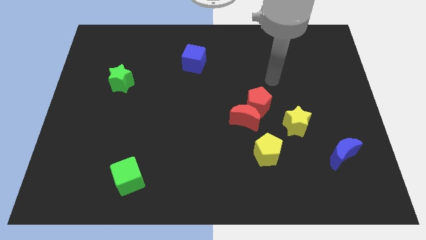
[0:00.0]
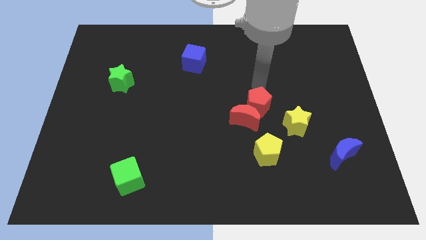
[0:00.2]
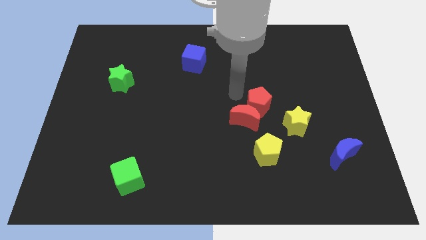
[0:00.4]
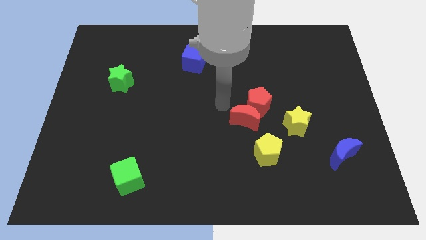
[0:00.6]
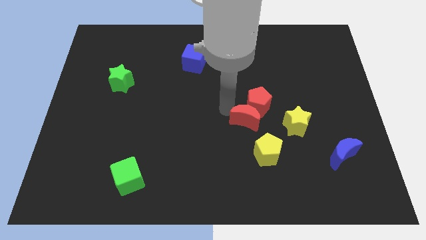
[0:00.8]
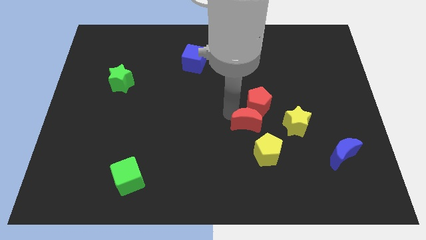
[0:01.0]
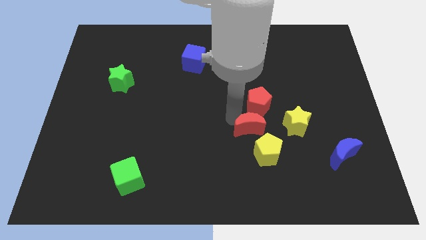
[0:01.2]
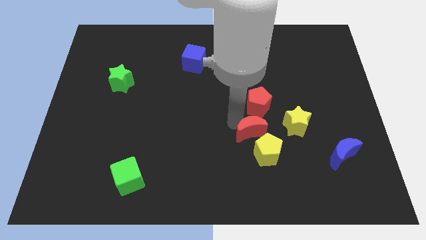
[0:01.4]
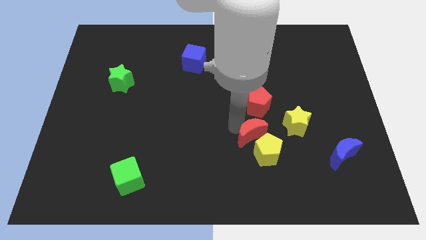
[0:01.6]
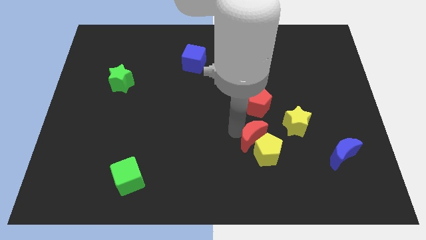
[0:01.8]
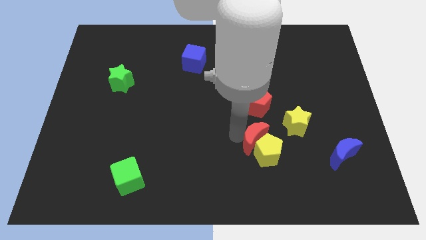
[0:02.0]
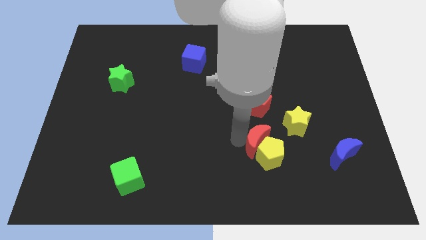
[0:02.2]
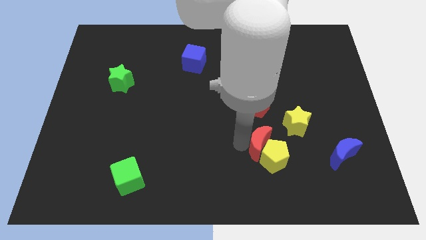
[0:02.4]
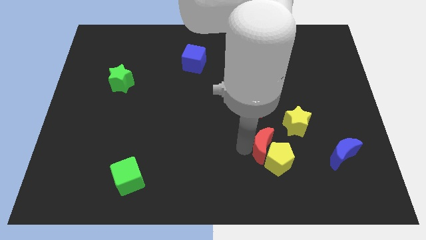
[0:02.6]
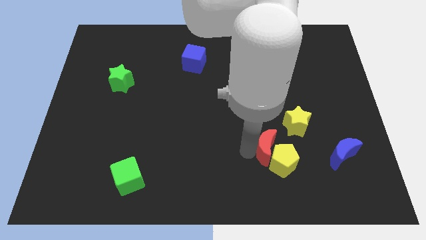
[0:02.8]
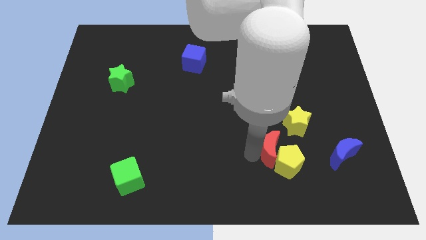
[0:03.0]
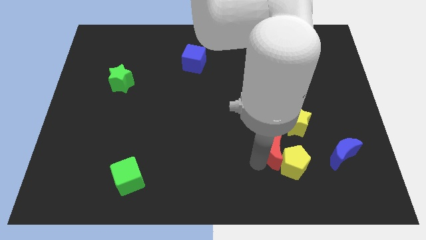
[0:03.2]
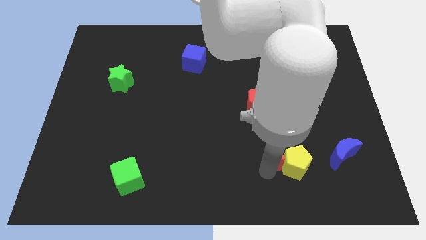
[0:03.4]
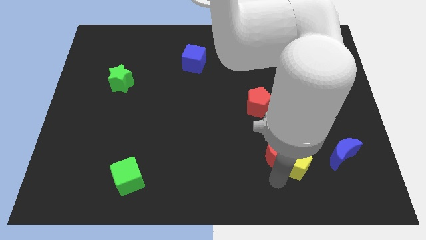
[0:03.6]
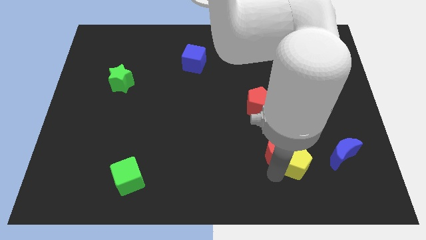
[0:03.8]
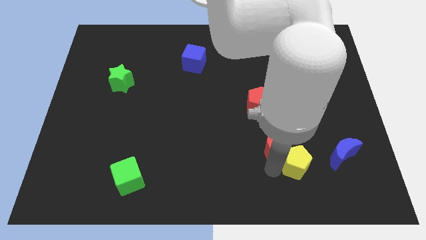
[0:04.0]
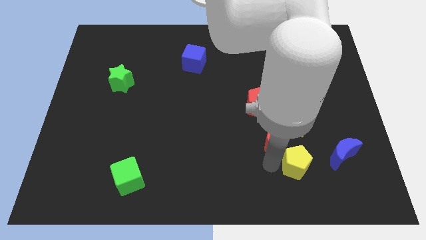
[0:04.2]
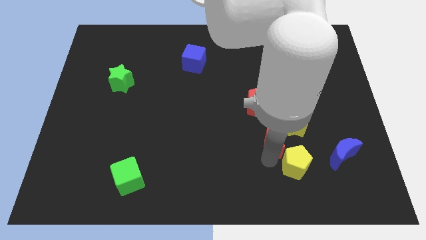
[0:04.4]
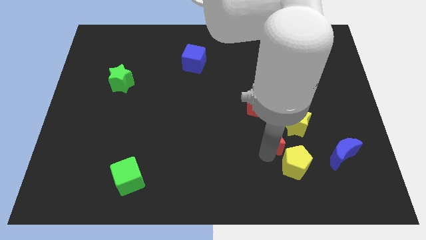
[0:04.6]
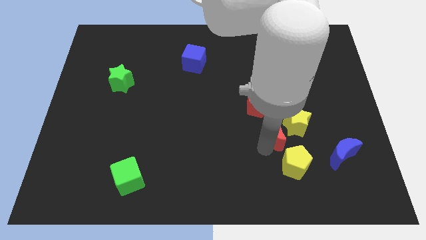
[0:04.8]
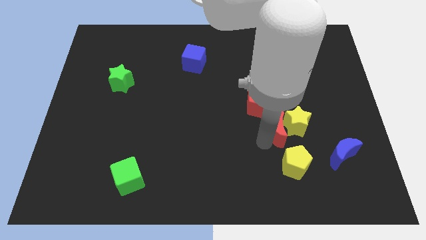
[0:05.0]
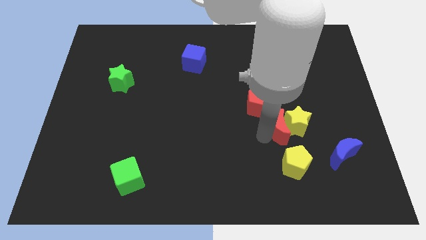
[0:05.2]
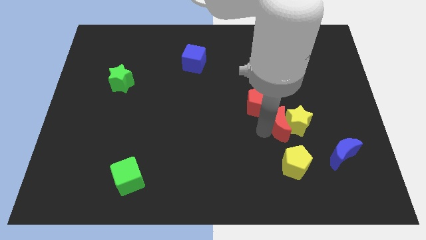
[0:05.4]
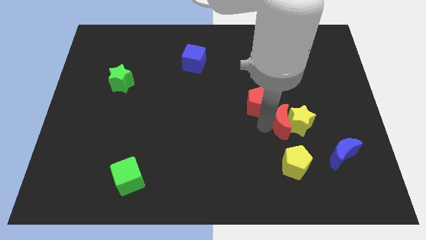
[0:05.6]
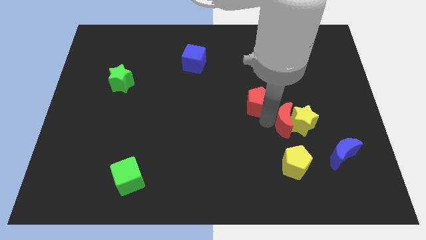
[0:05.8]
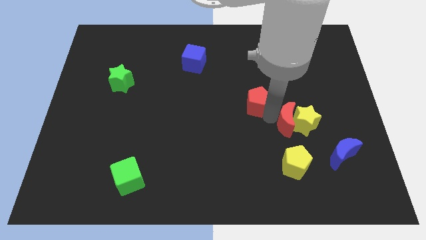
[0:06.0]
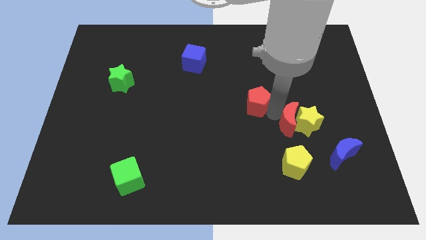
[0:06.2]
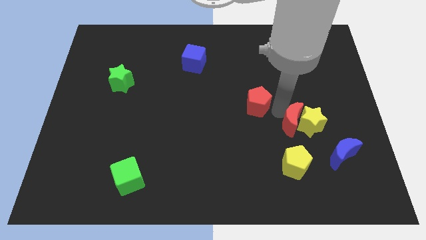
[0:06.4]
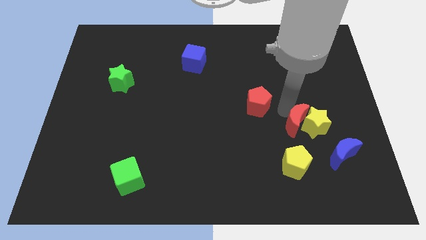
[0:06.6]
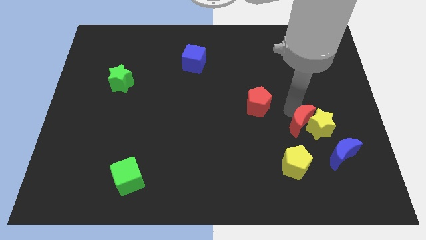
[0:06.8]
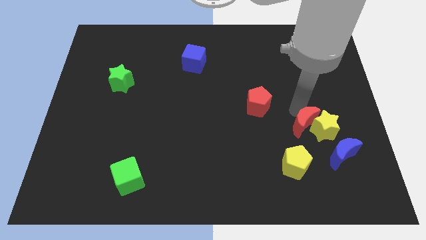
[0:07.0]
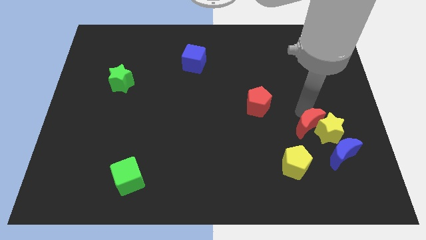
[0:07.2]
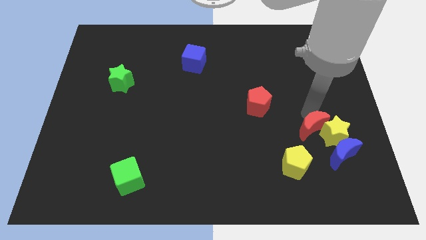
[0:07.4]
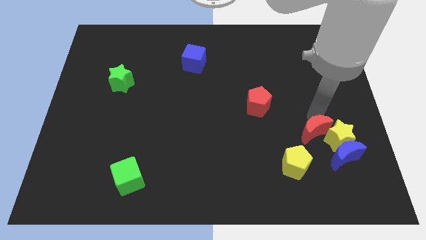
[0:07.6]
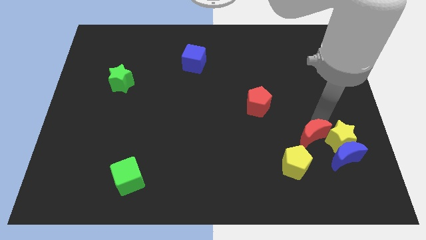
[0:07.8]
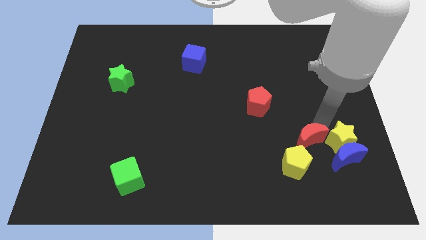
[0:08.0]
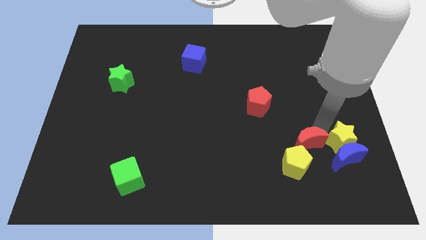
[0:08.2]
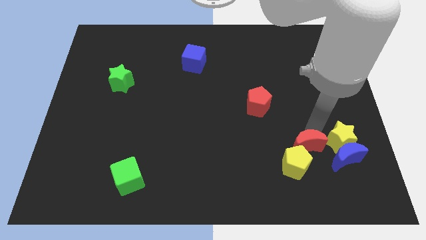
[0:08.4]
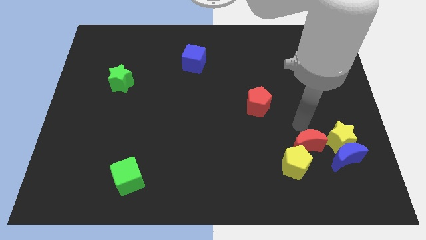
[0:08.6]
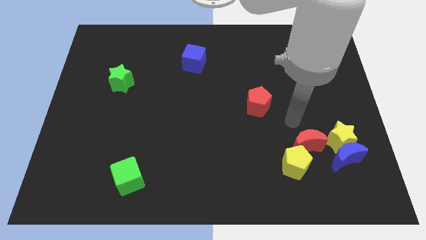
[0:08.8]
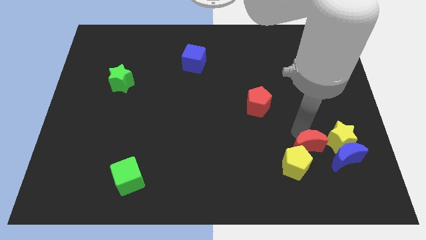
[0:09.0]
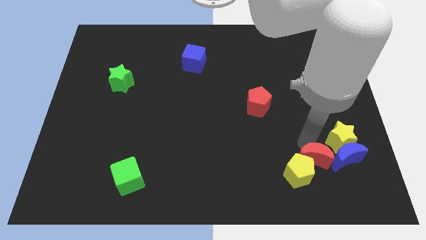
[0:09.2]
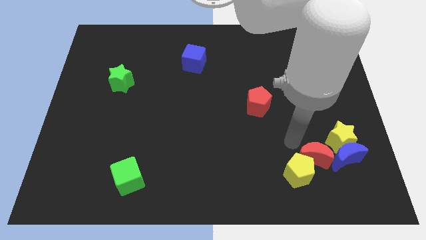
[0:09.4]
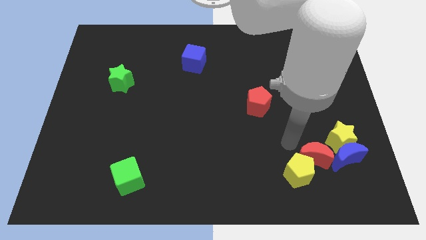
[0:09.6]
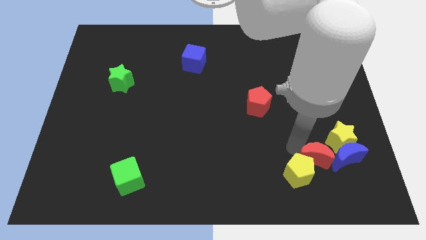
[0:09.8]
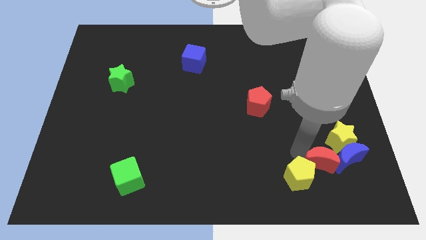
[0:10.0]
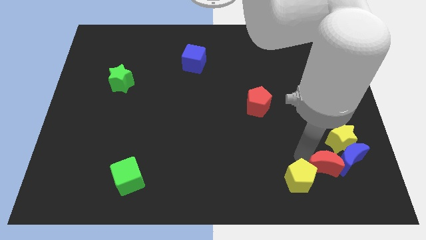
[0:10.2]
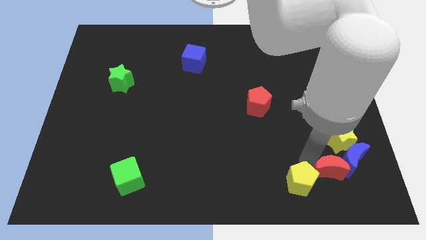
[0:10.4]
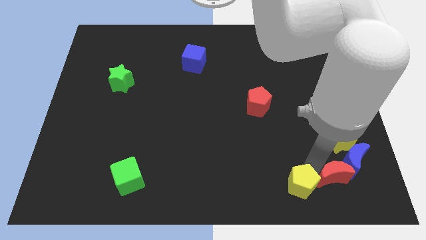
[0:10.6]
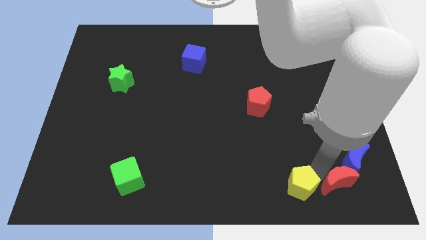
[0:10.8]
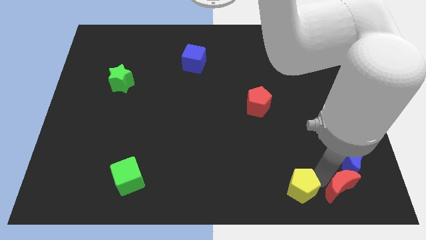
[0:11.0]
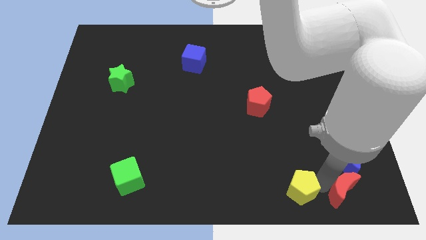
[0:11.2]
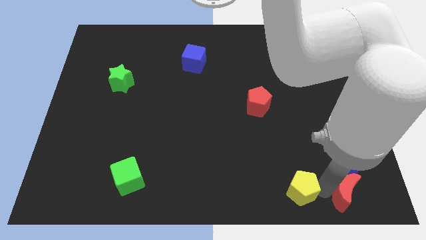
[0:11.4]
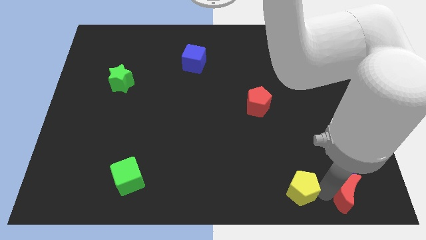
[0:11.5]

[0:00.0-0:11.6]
put the red moon to the bottom right of the board

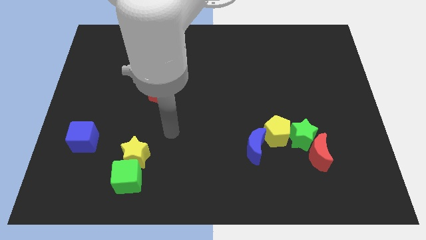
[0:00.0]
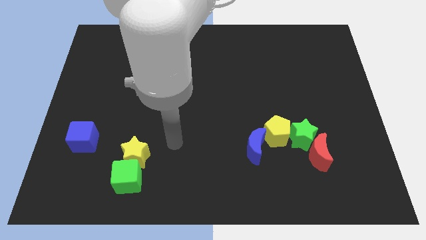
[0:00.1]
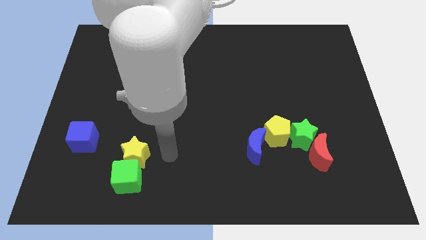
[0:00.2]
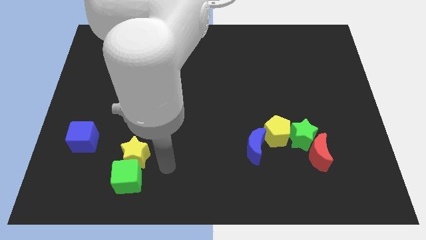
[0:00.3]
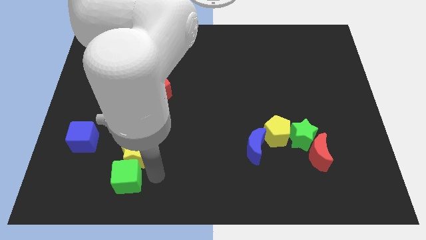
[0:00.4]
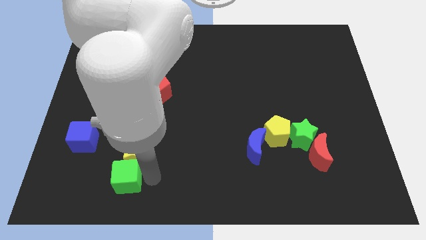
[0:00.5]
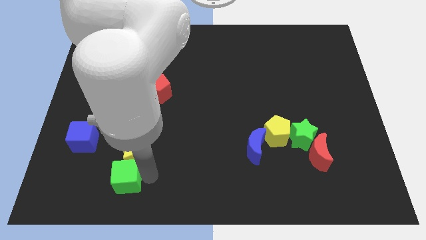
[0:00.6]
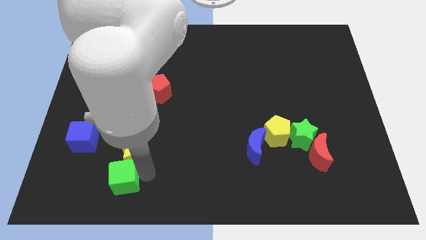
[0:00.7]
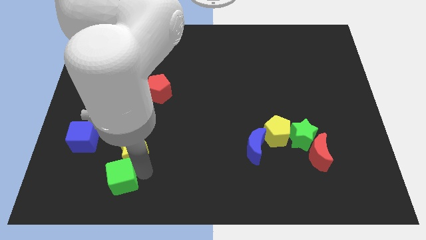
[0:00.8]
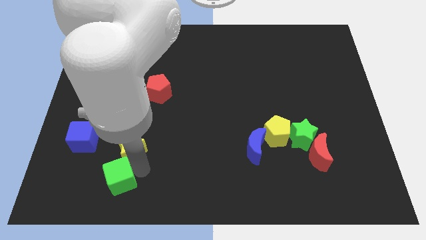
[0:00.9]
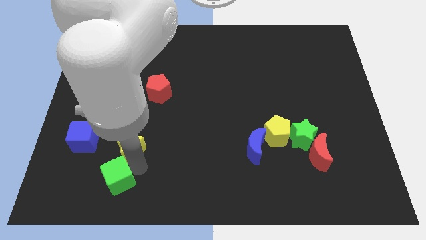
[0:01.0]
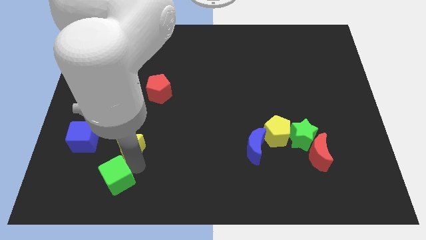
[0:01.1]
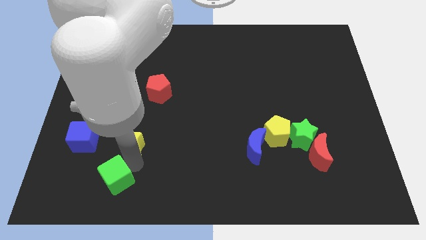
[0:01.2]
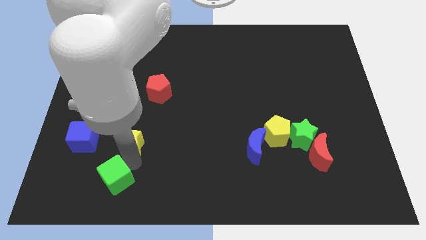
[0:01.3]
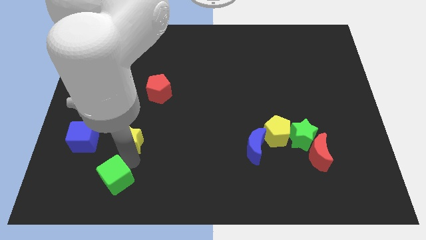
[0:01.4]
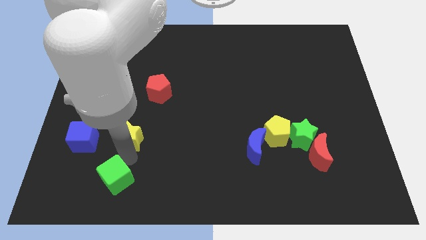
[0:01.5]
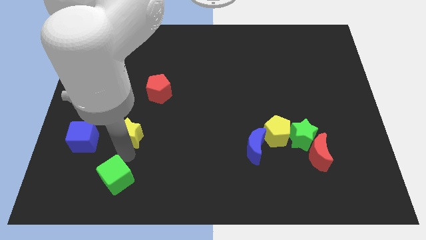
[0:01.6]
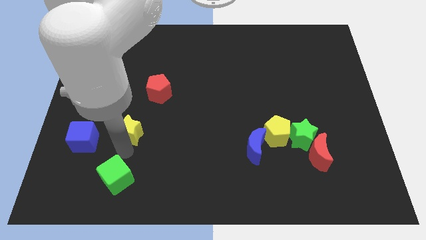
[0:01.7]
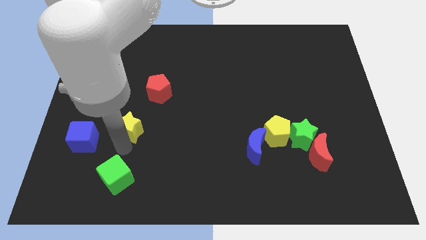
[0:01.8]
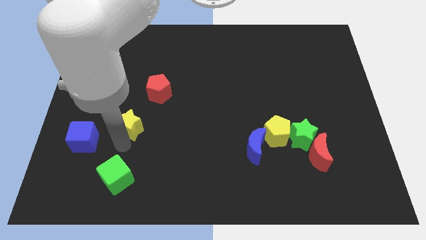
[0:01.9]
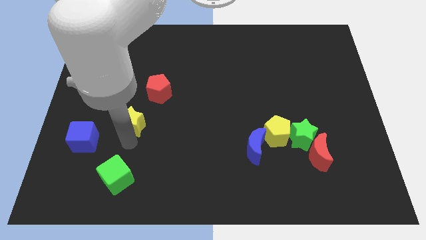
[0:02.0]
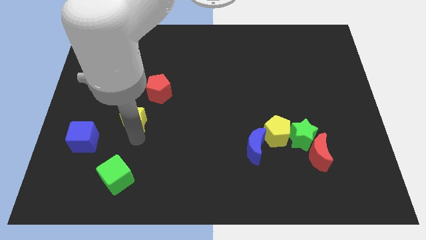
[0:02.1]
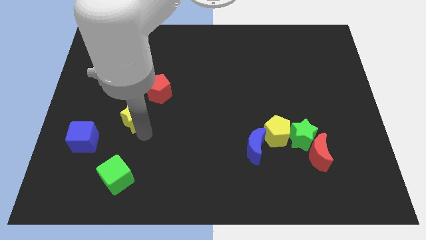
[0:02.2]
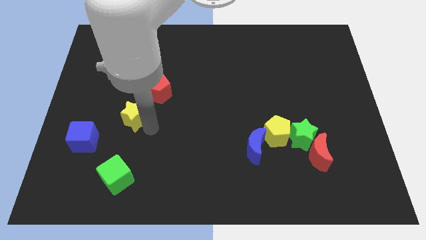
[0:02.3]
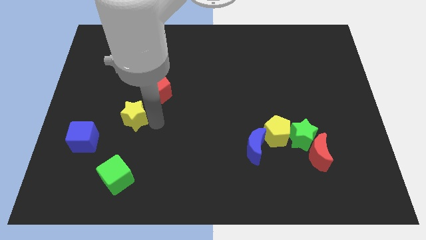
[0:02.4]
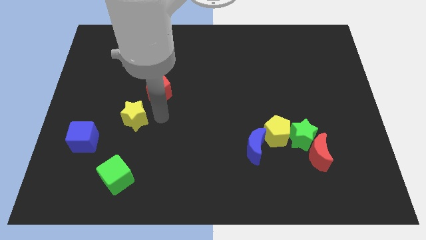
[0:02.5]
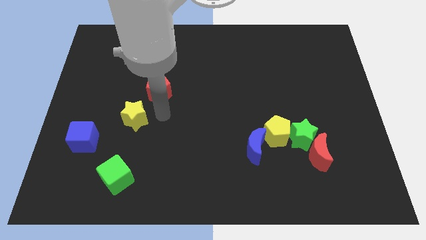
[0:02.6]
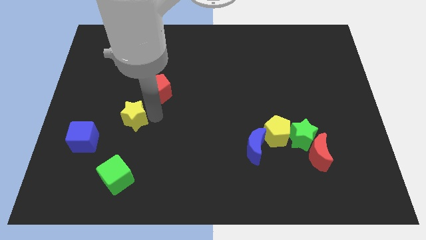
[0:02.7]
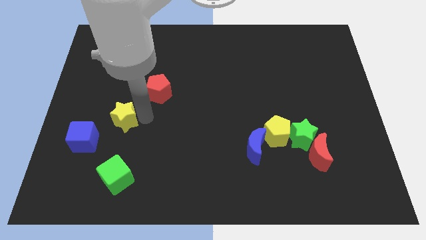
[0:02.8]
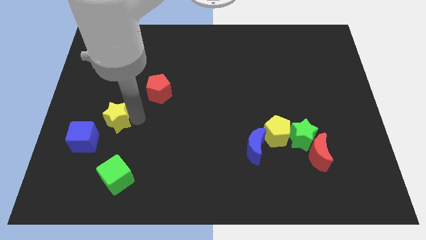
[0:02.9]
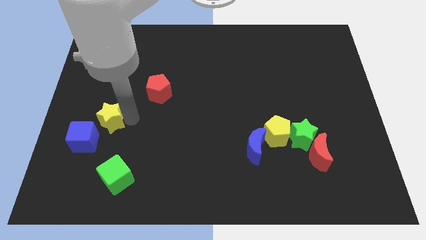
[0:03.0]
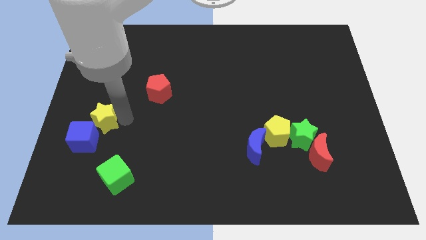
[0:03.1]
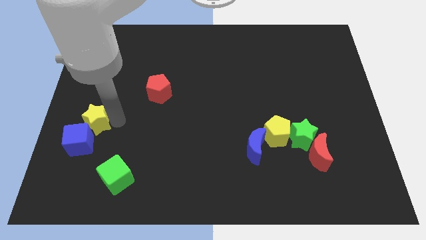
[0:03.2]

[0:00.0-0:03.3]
put the yellow star to the center left
